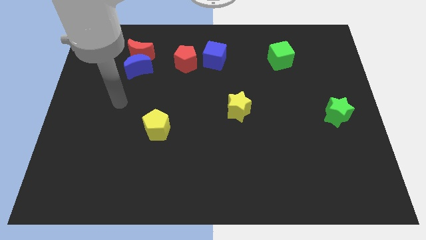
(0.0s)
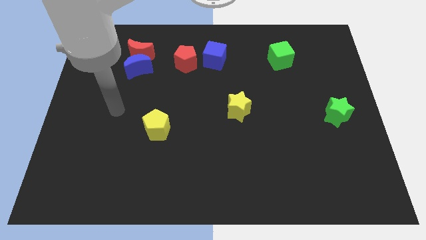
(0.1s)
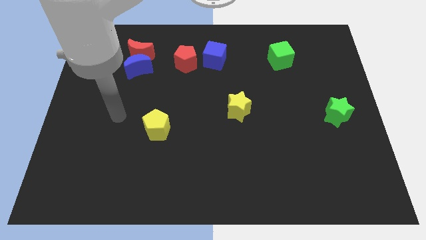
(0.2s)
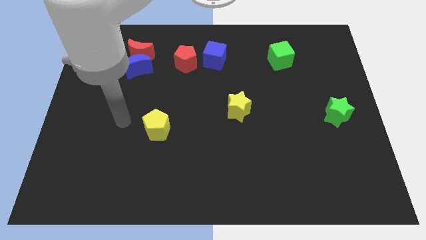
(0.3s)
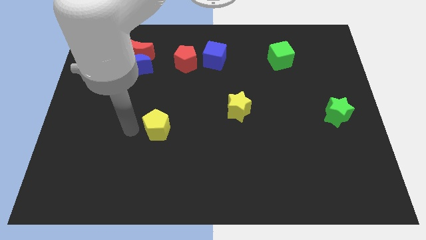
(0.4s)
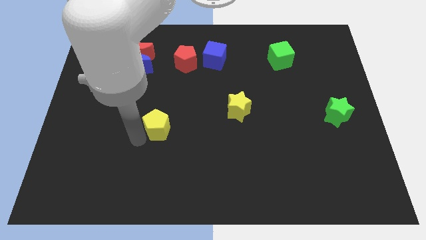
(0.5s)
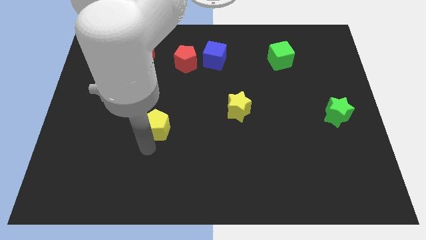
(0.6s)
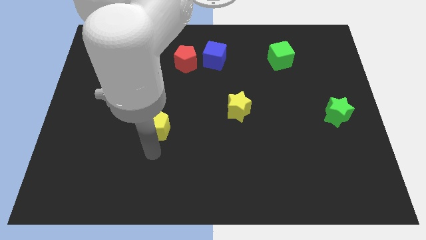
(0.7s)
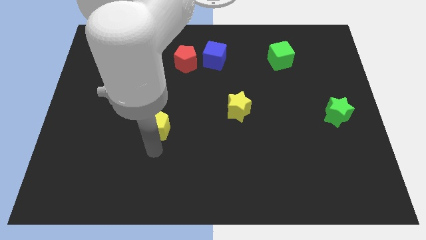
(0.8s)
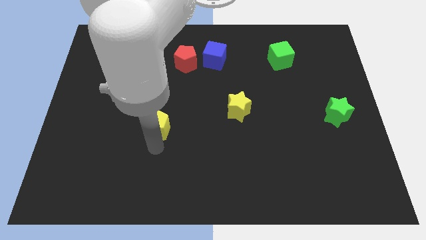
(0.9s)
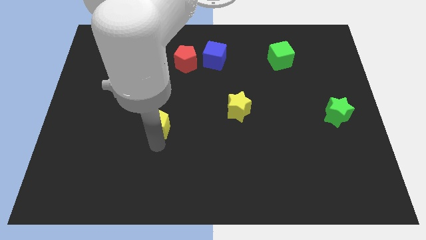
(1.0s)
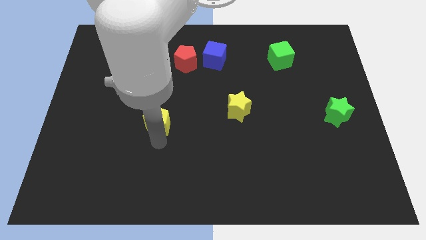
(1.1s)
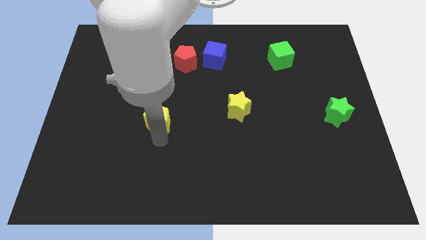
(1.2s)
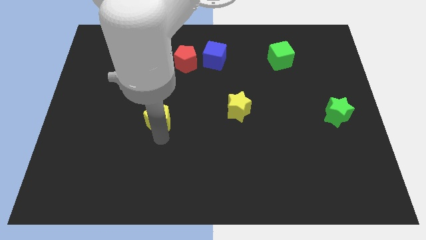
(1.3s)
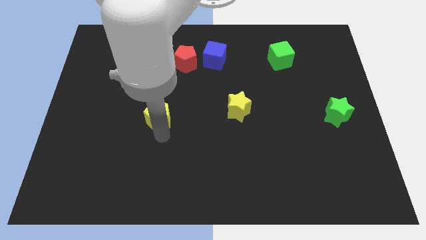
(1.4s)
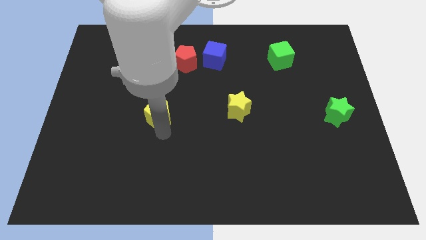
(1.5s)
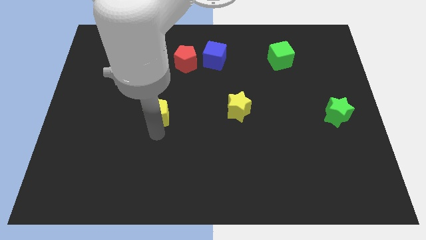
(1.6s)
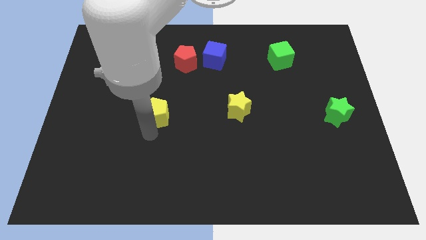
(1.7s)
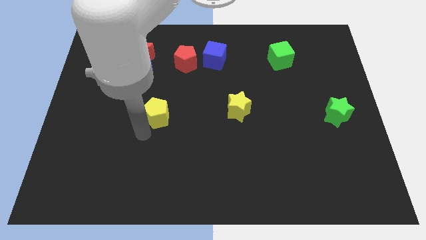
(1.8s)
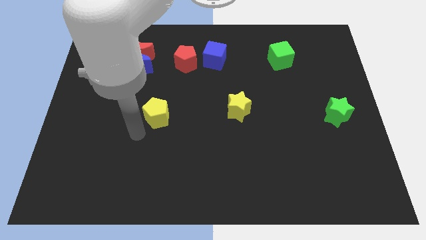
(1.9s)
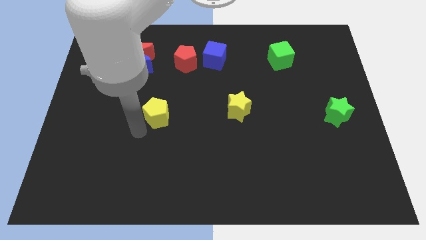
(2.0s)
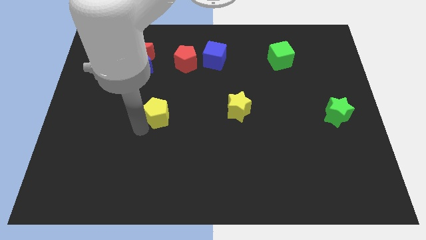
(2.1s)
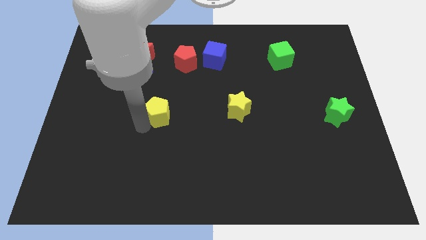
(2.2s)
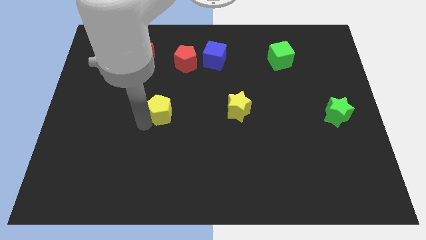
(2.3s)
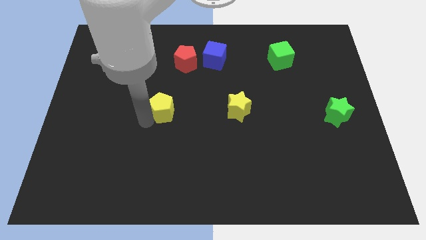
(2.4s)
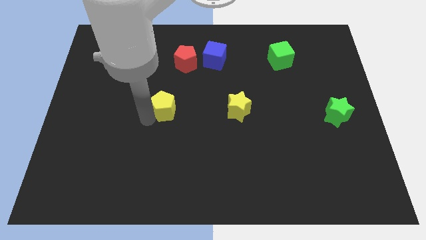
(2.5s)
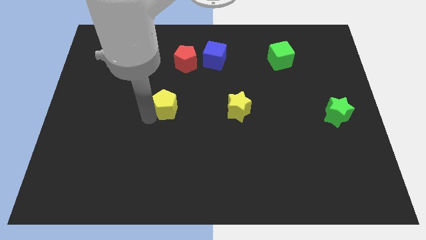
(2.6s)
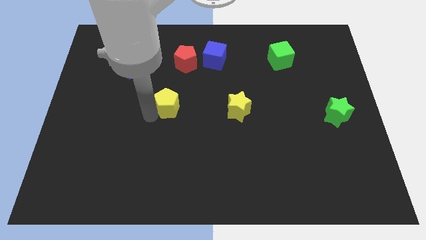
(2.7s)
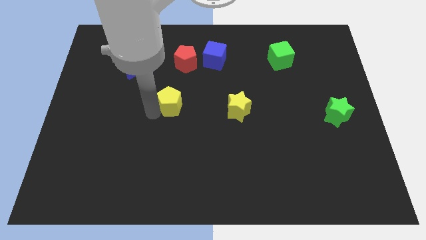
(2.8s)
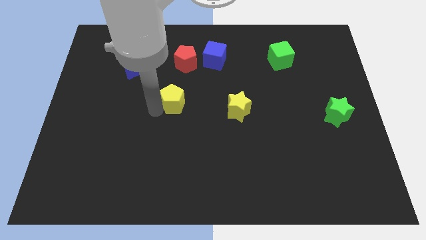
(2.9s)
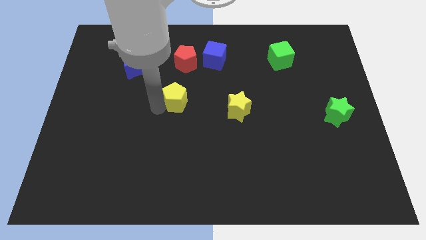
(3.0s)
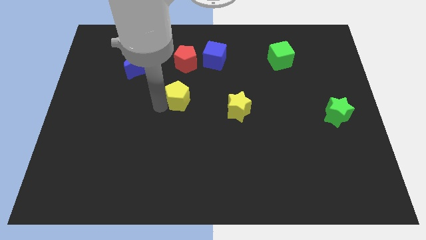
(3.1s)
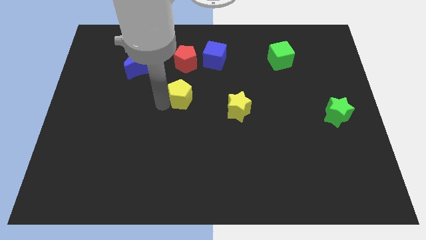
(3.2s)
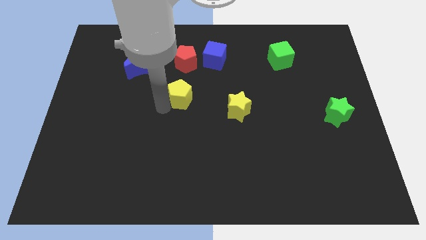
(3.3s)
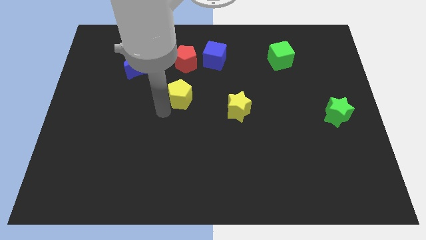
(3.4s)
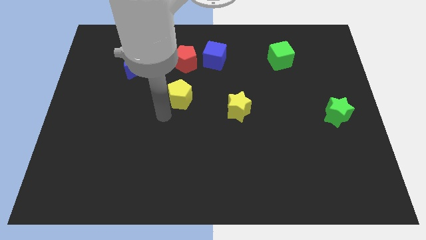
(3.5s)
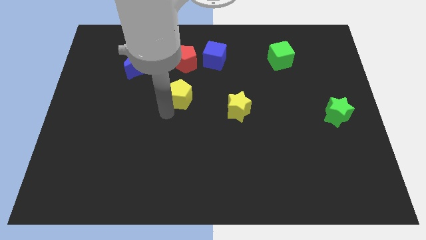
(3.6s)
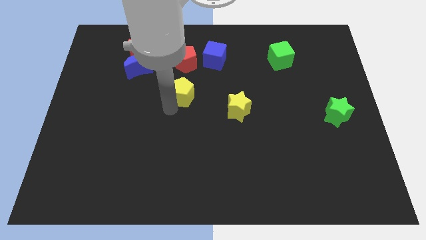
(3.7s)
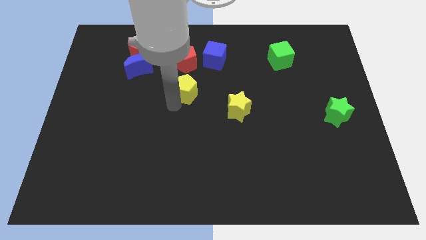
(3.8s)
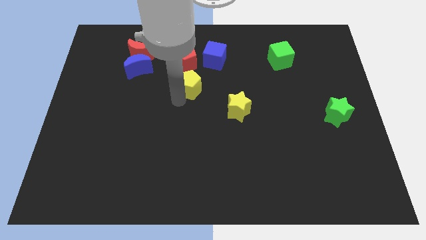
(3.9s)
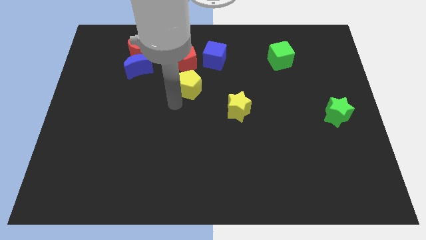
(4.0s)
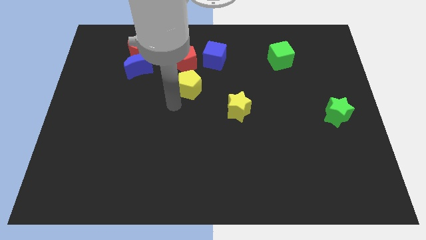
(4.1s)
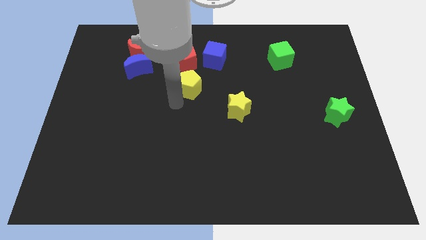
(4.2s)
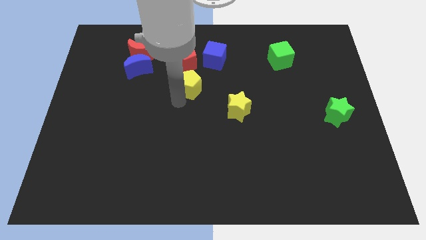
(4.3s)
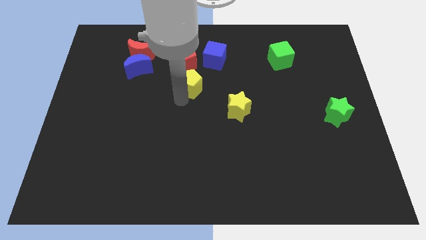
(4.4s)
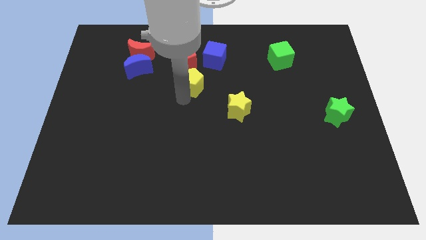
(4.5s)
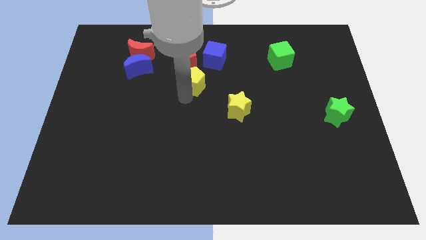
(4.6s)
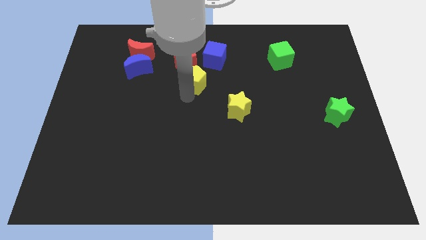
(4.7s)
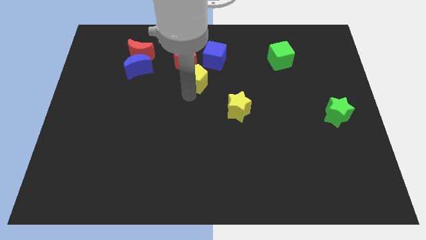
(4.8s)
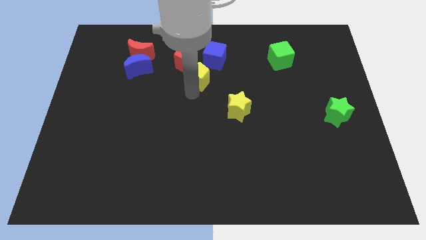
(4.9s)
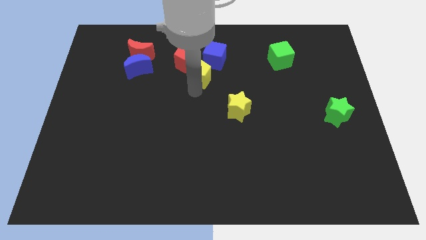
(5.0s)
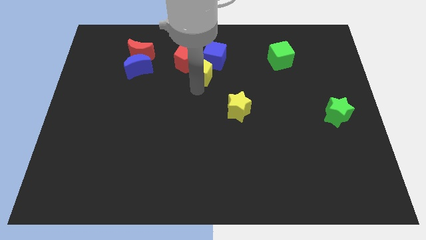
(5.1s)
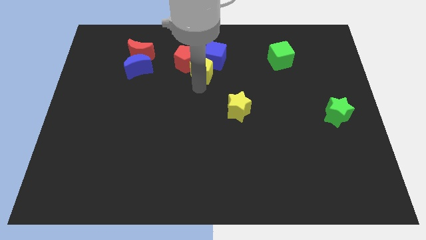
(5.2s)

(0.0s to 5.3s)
put the yellow pentagon next to the blue cube

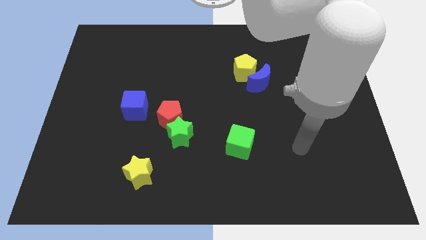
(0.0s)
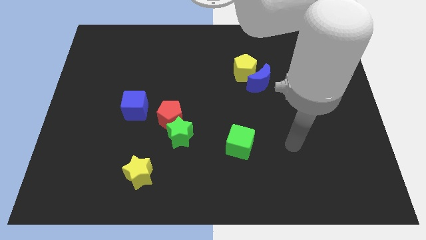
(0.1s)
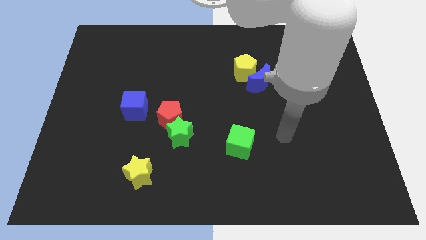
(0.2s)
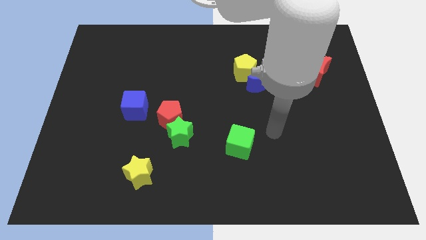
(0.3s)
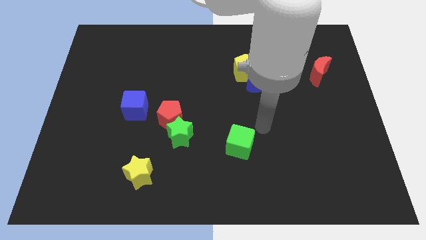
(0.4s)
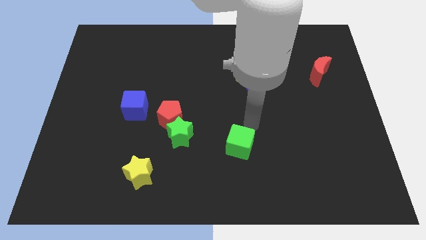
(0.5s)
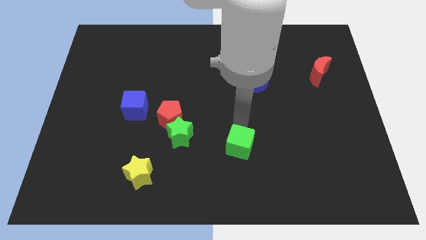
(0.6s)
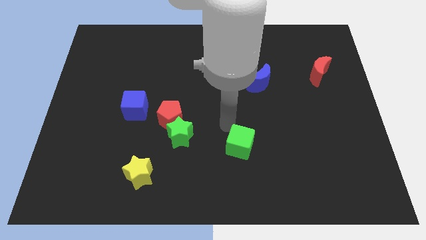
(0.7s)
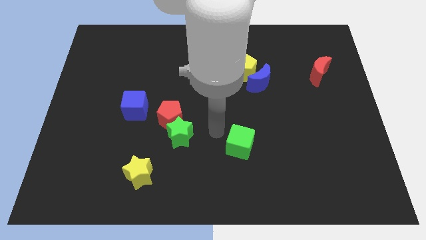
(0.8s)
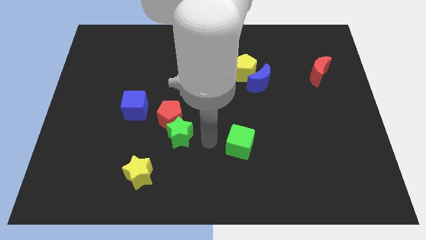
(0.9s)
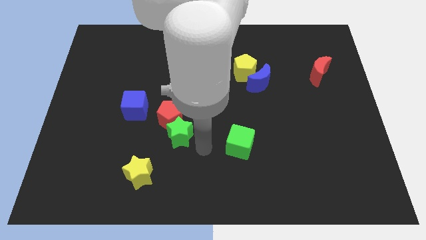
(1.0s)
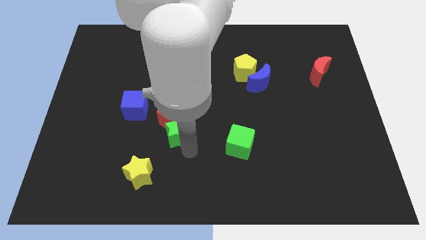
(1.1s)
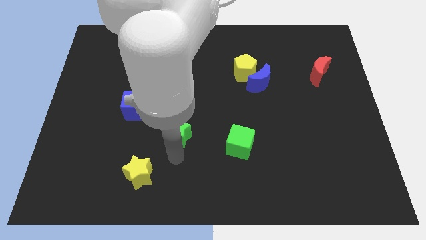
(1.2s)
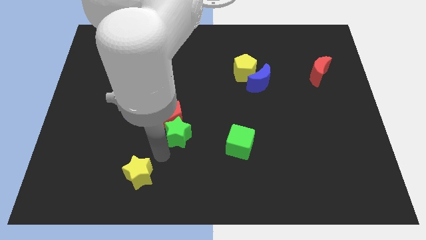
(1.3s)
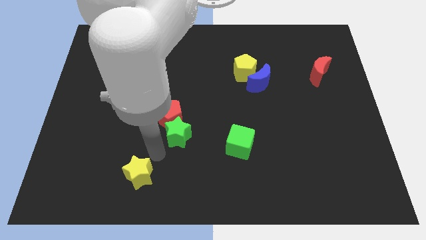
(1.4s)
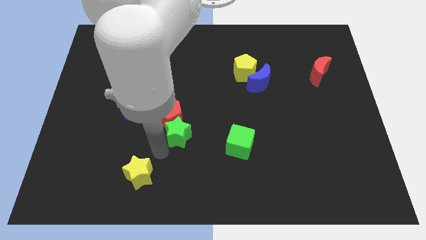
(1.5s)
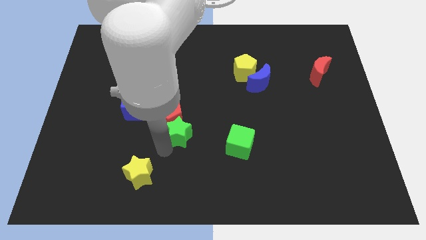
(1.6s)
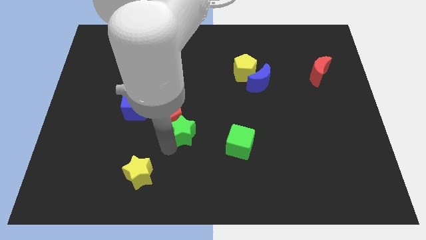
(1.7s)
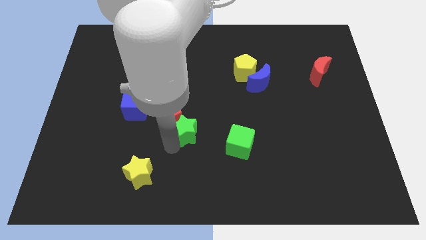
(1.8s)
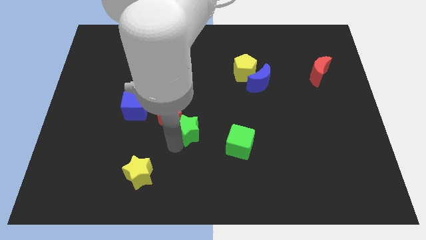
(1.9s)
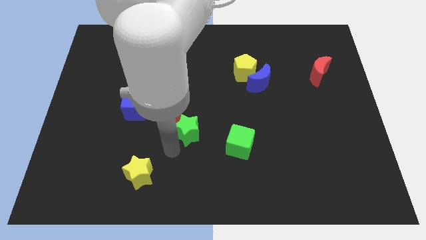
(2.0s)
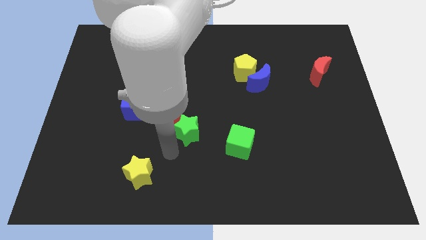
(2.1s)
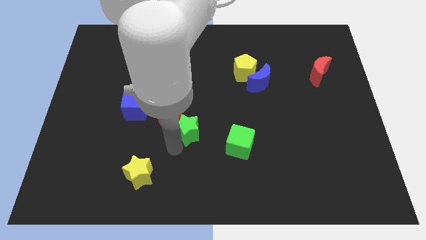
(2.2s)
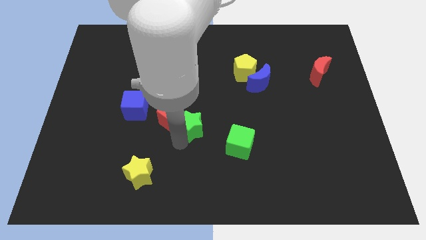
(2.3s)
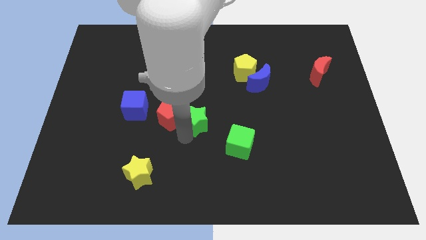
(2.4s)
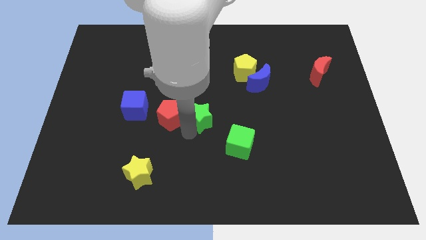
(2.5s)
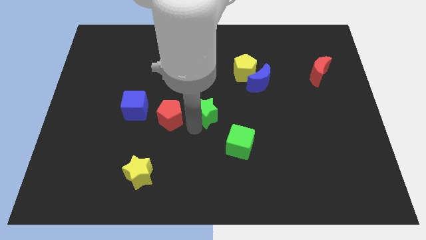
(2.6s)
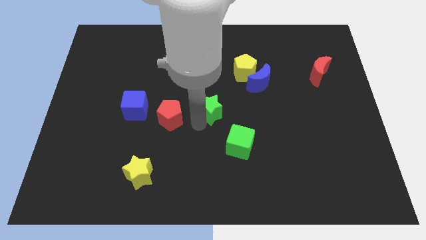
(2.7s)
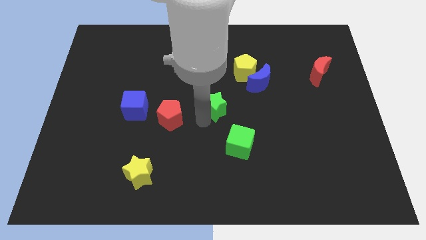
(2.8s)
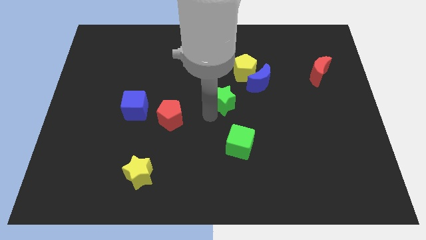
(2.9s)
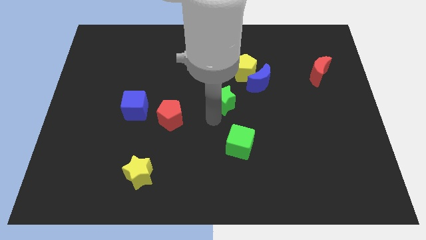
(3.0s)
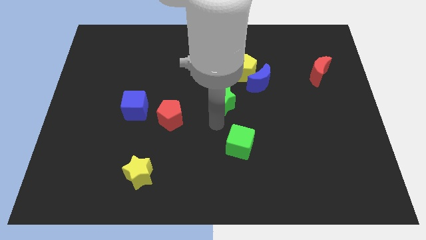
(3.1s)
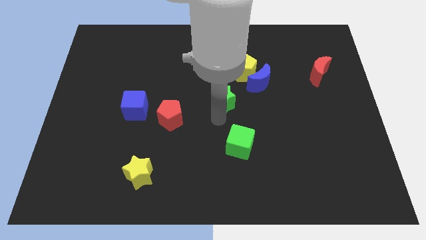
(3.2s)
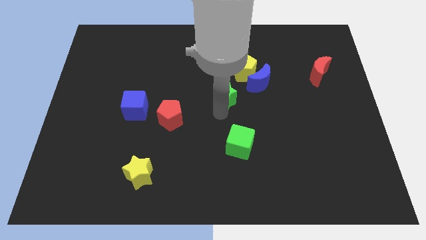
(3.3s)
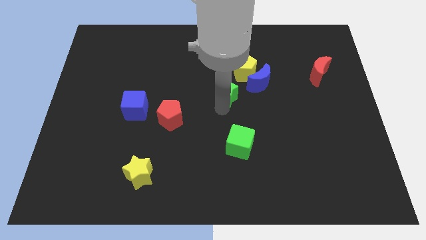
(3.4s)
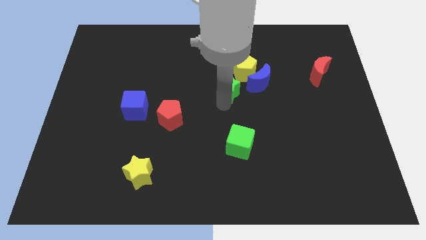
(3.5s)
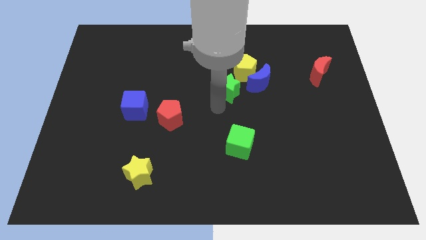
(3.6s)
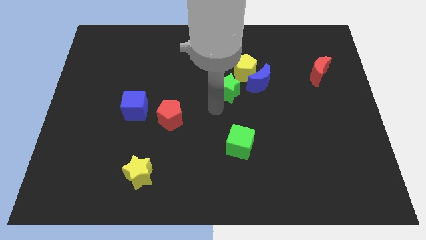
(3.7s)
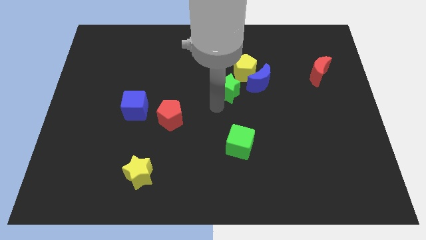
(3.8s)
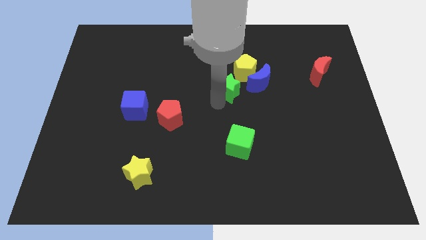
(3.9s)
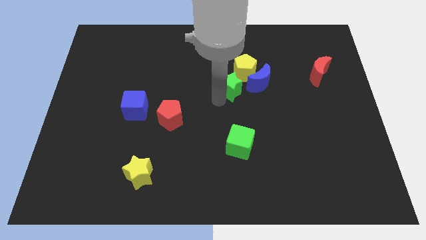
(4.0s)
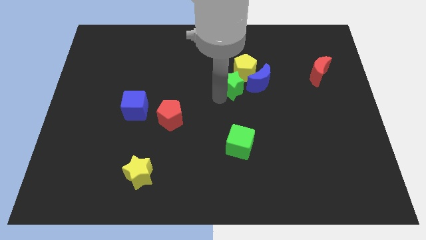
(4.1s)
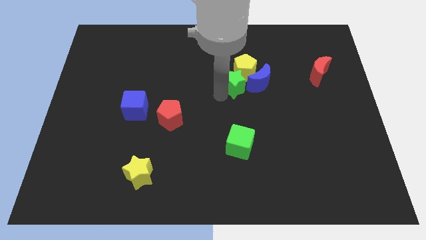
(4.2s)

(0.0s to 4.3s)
put the green star next to the yellow pentagon
